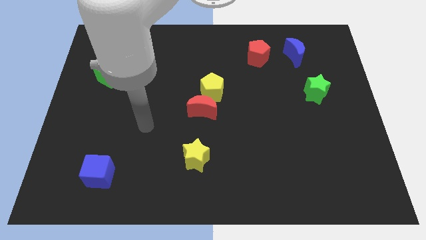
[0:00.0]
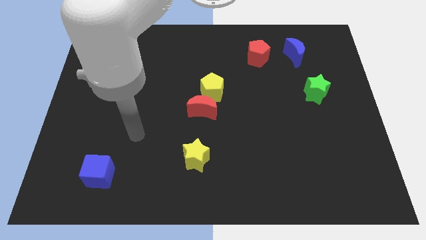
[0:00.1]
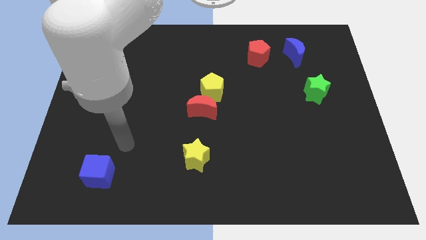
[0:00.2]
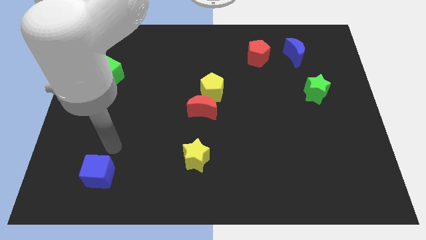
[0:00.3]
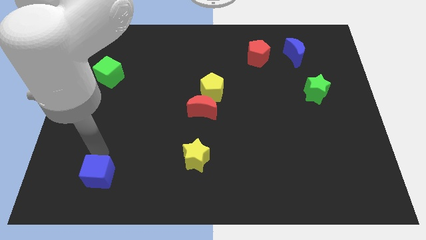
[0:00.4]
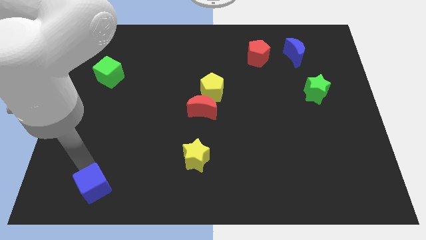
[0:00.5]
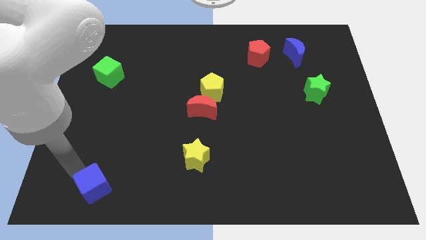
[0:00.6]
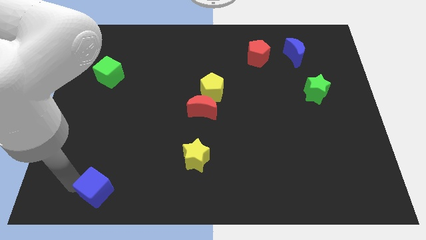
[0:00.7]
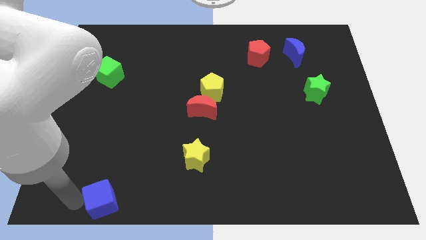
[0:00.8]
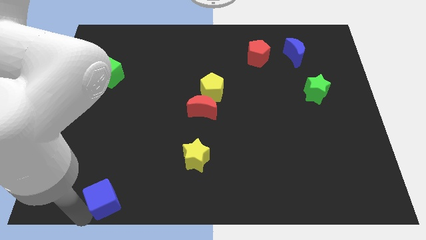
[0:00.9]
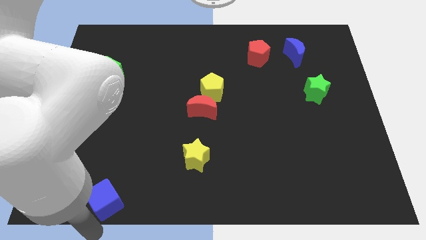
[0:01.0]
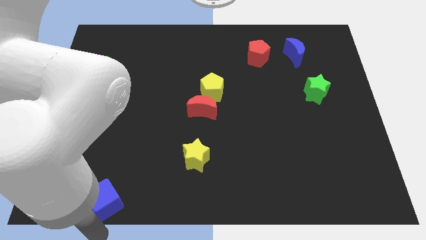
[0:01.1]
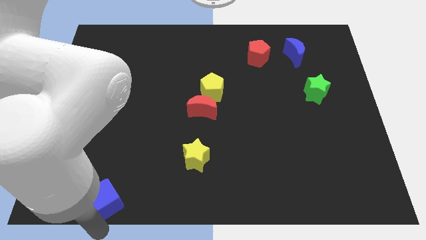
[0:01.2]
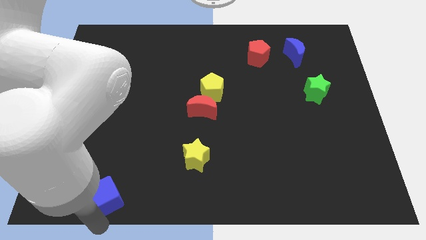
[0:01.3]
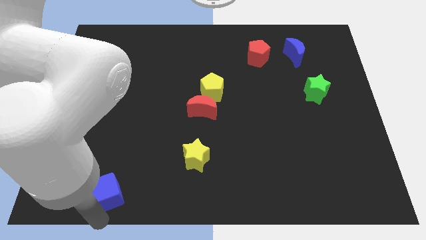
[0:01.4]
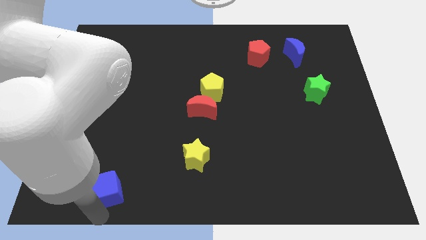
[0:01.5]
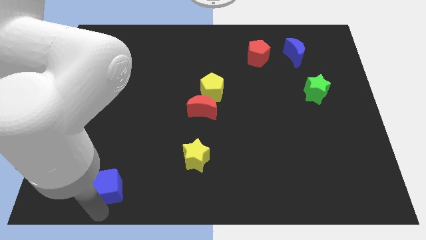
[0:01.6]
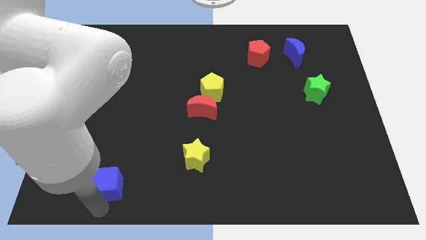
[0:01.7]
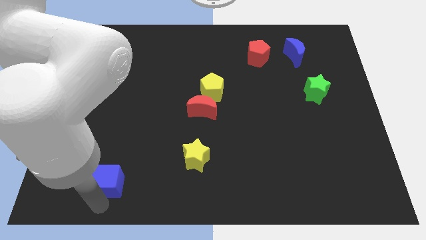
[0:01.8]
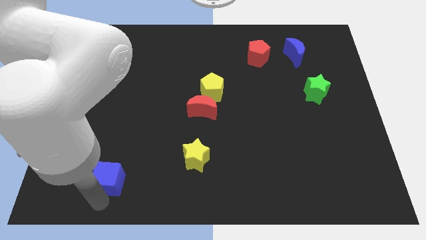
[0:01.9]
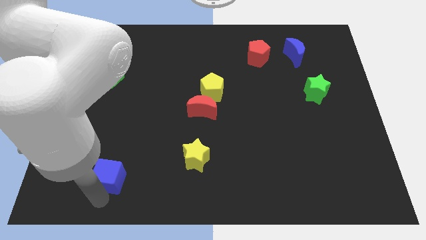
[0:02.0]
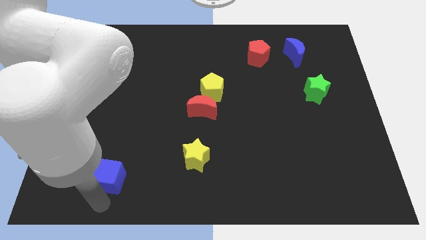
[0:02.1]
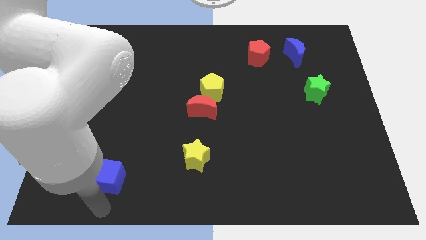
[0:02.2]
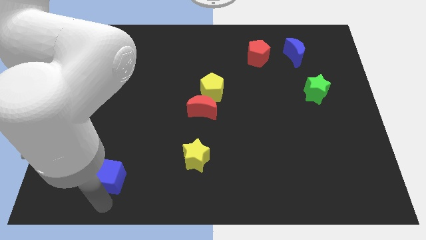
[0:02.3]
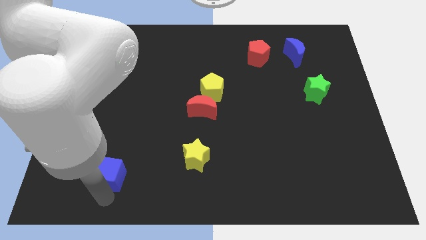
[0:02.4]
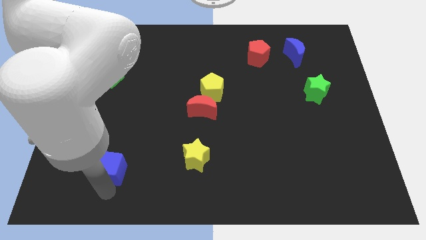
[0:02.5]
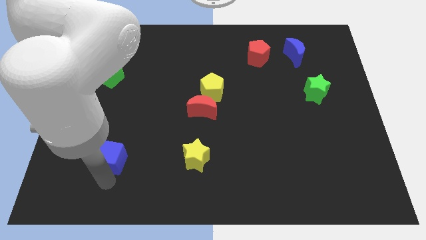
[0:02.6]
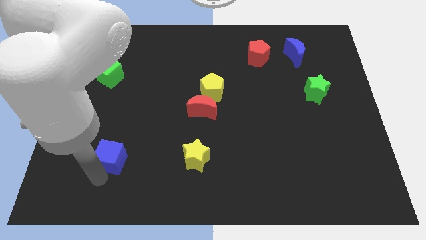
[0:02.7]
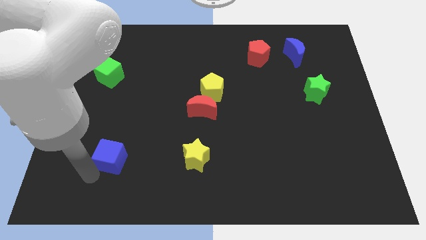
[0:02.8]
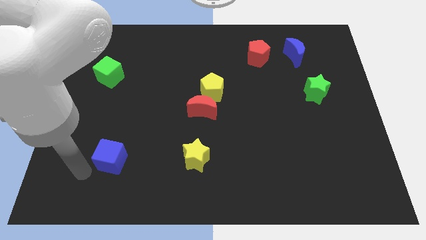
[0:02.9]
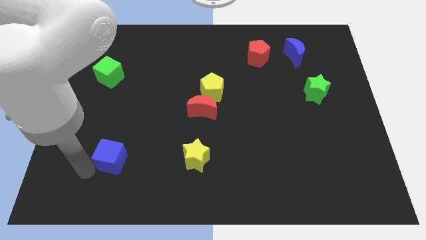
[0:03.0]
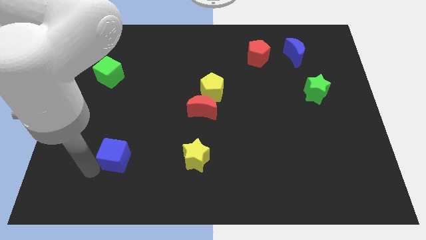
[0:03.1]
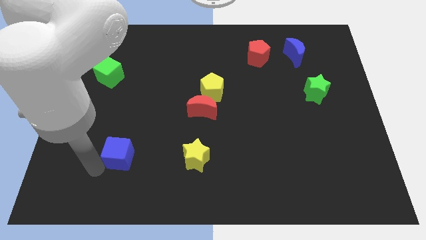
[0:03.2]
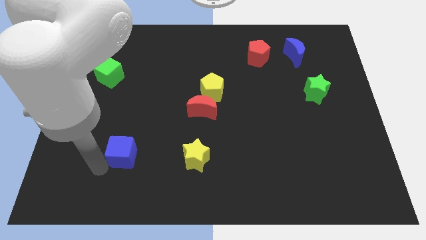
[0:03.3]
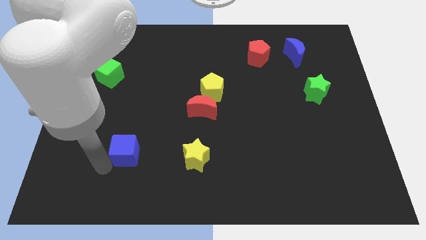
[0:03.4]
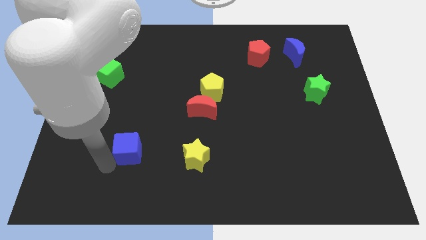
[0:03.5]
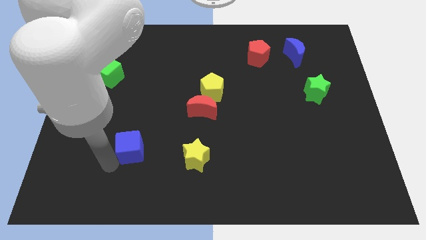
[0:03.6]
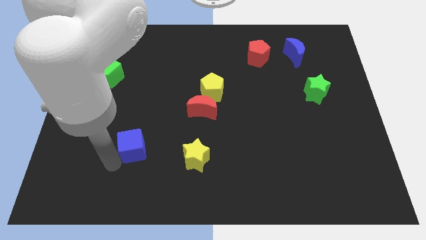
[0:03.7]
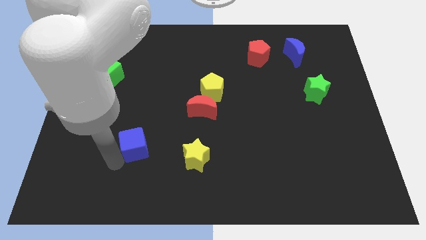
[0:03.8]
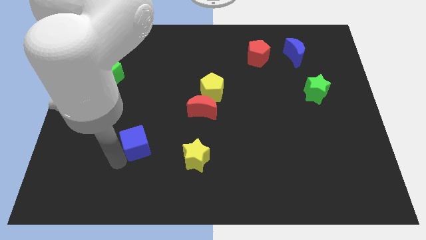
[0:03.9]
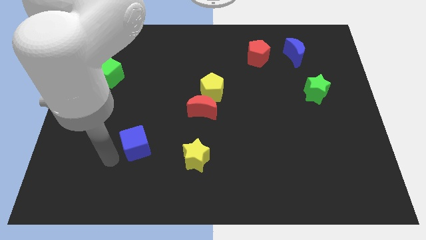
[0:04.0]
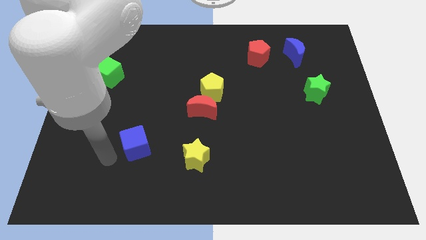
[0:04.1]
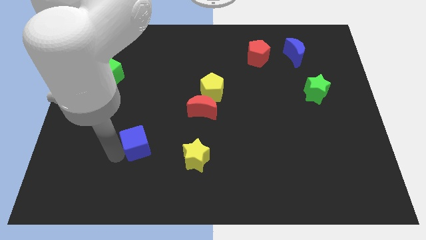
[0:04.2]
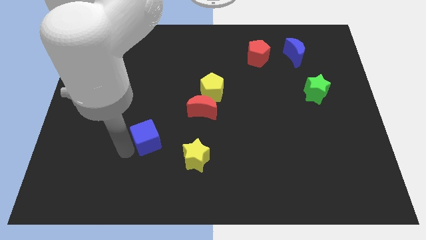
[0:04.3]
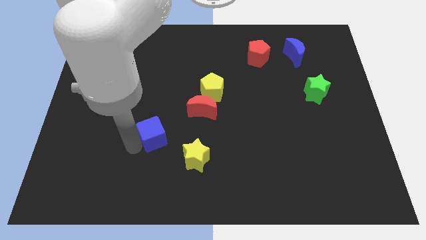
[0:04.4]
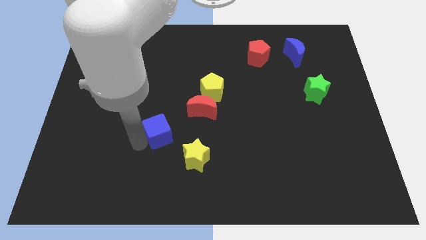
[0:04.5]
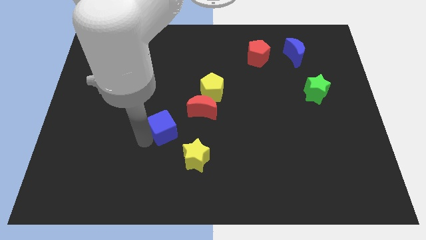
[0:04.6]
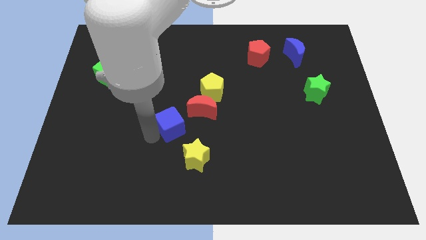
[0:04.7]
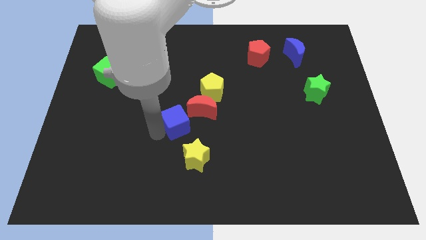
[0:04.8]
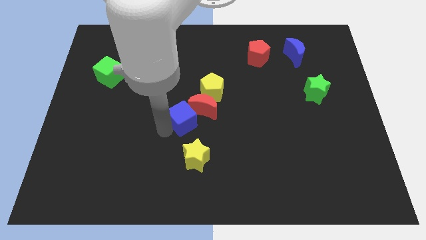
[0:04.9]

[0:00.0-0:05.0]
move the blue cube close to the red moon

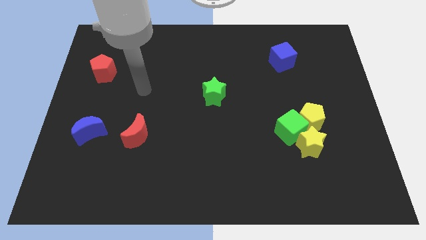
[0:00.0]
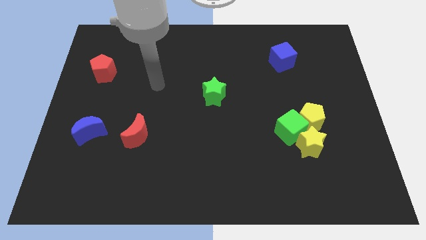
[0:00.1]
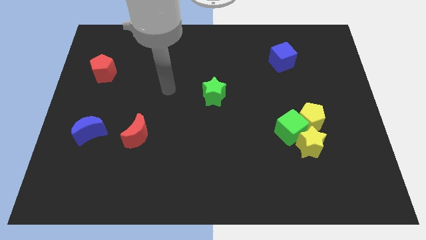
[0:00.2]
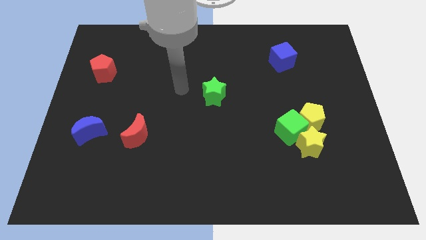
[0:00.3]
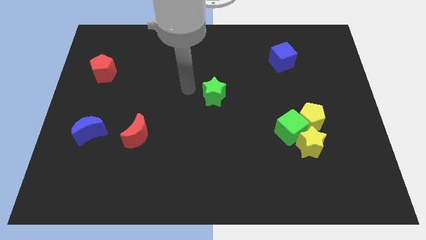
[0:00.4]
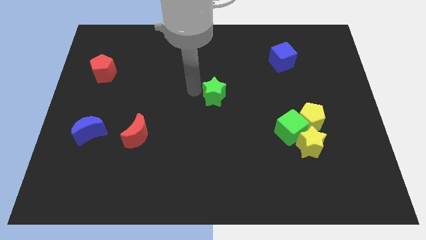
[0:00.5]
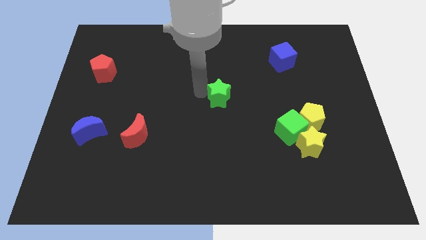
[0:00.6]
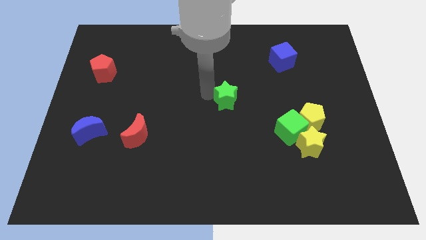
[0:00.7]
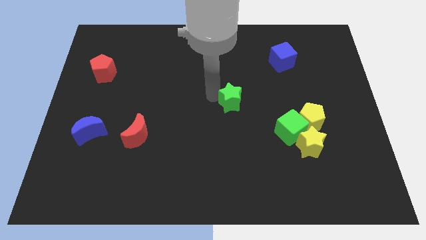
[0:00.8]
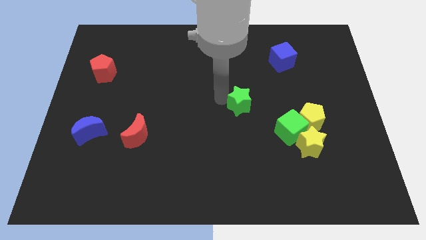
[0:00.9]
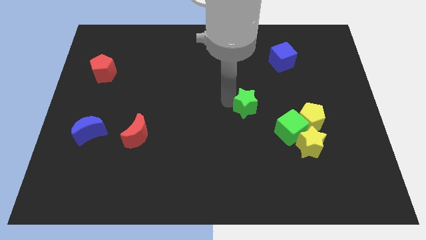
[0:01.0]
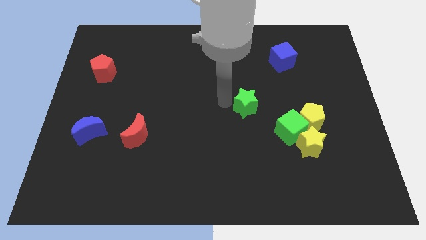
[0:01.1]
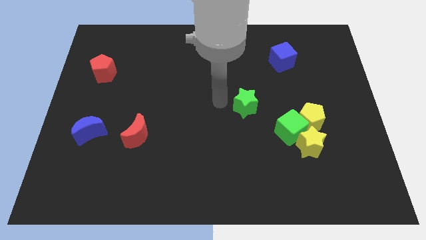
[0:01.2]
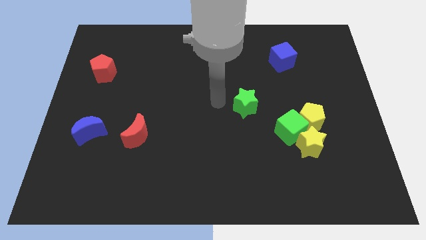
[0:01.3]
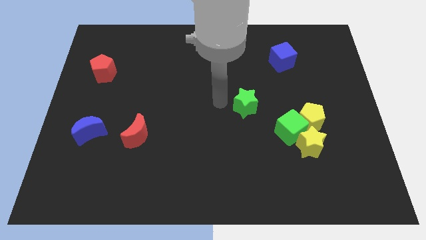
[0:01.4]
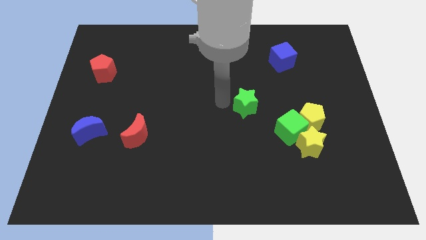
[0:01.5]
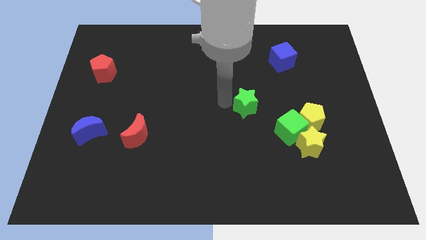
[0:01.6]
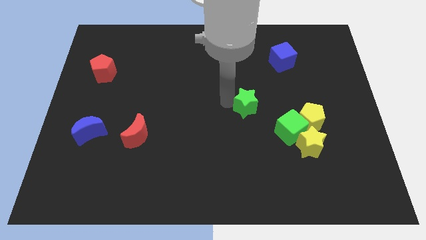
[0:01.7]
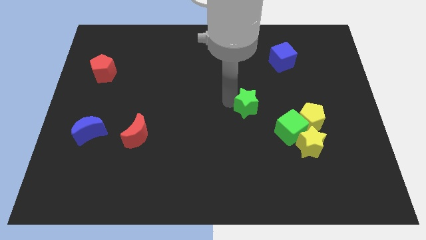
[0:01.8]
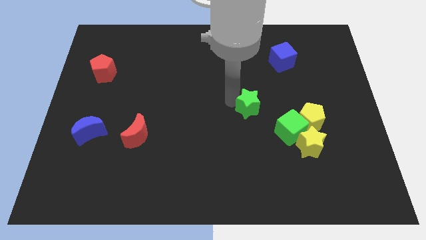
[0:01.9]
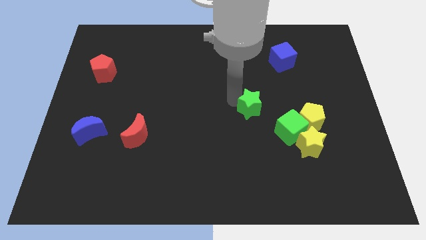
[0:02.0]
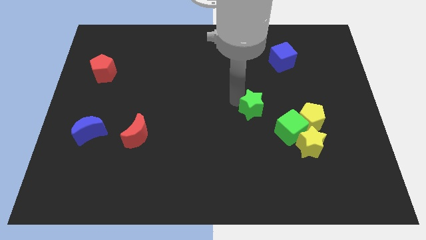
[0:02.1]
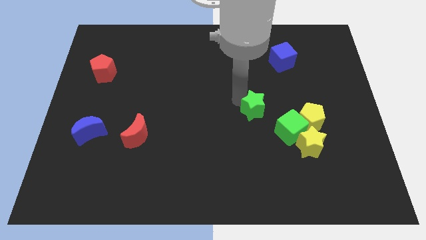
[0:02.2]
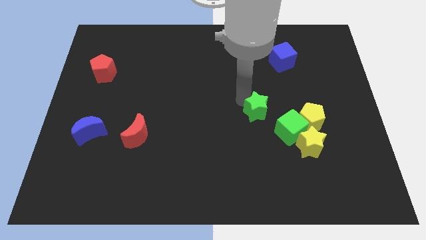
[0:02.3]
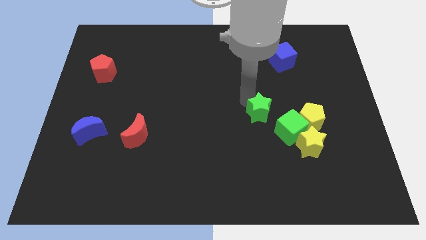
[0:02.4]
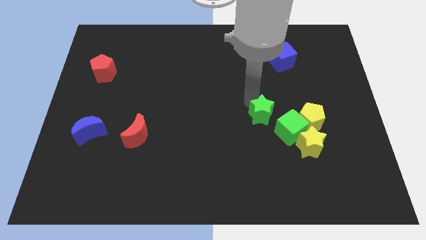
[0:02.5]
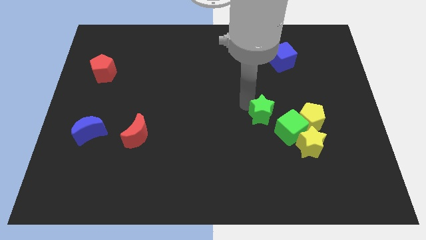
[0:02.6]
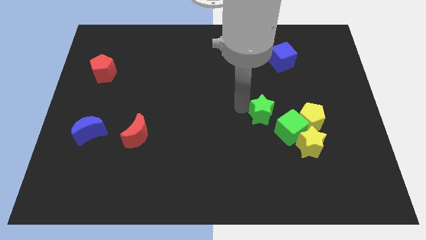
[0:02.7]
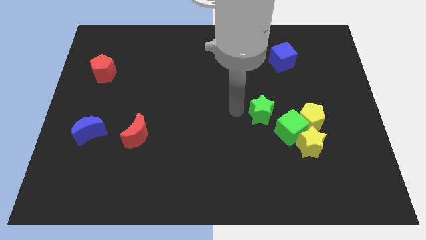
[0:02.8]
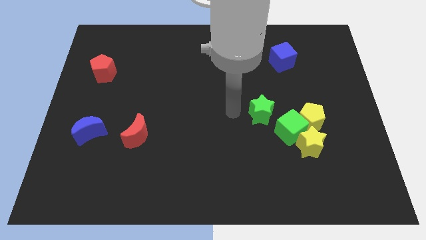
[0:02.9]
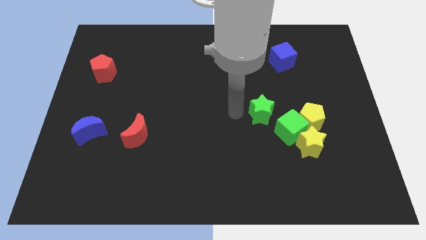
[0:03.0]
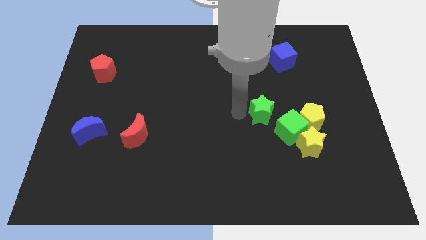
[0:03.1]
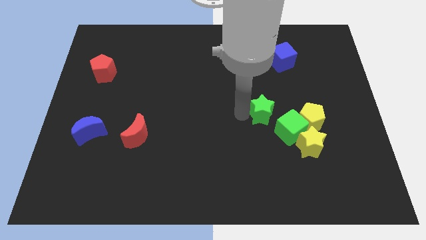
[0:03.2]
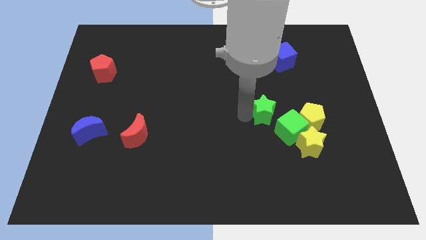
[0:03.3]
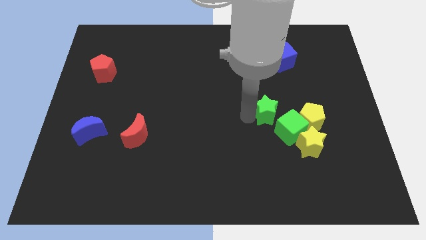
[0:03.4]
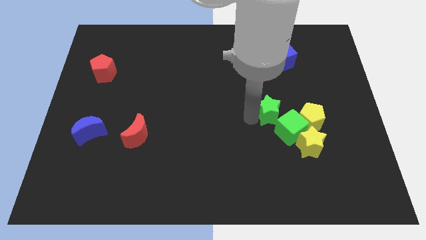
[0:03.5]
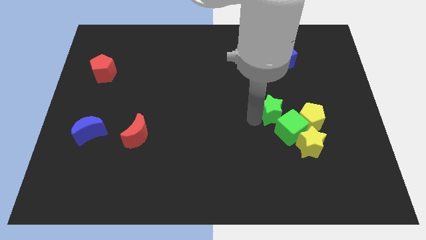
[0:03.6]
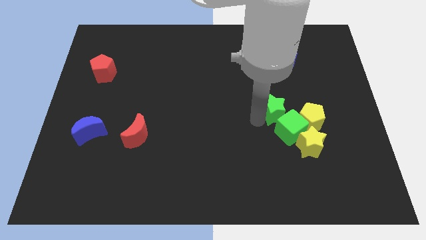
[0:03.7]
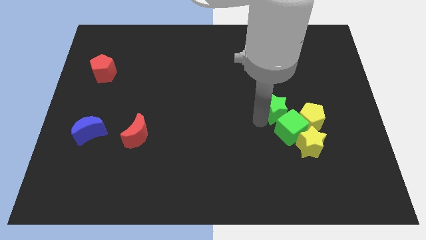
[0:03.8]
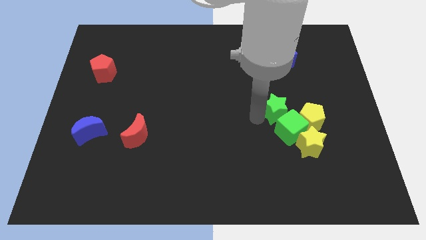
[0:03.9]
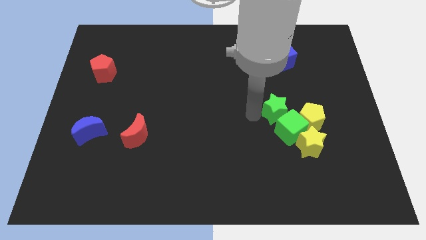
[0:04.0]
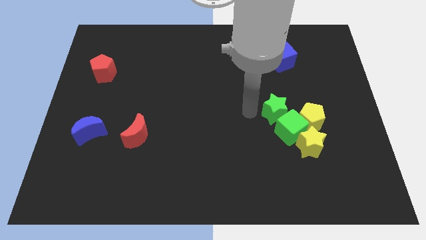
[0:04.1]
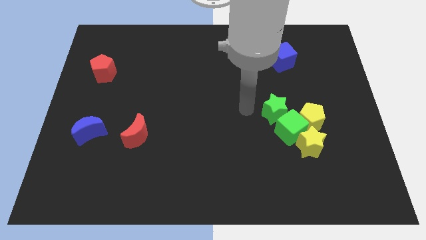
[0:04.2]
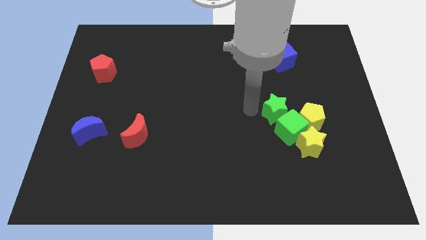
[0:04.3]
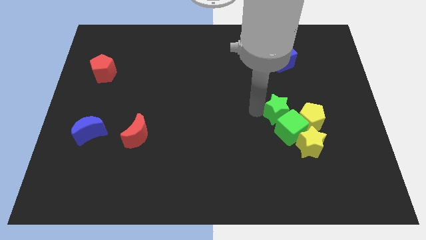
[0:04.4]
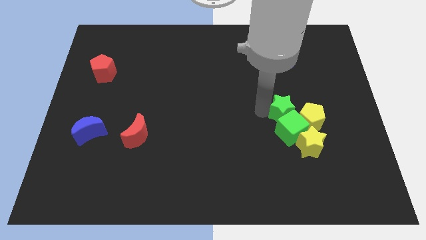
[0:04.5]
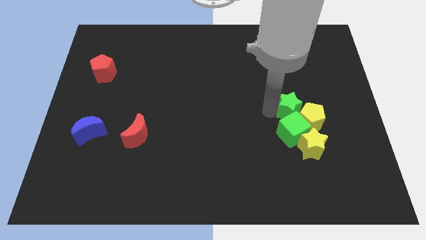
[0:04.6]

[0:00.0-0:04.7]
put the green star next to the yellow pentagon
